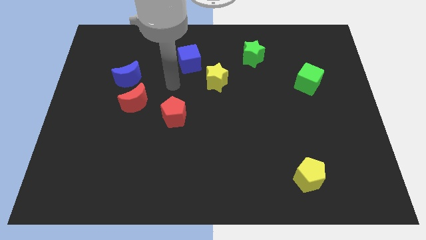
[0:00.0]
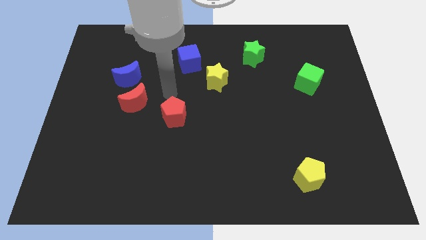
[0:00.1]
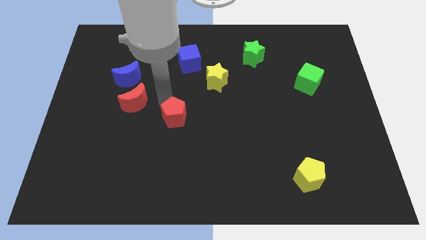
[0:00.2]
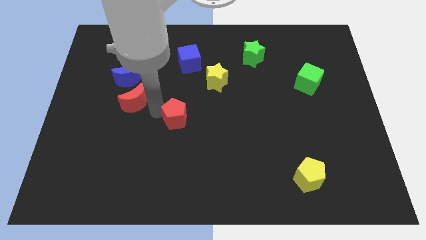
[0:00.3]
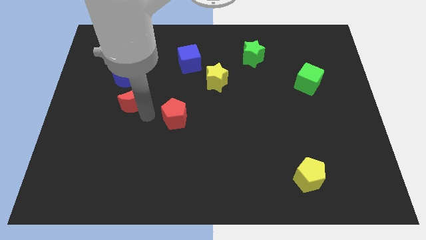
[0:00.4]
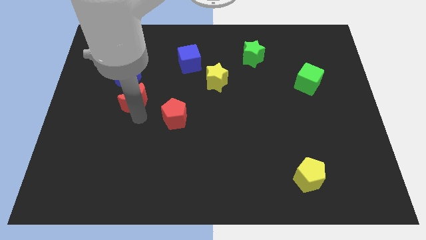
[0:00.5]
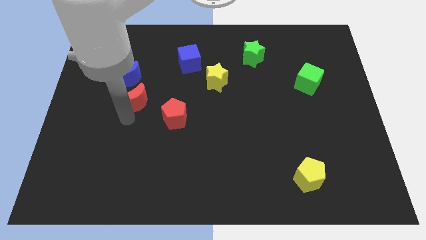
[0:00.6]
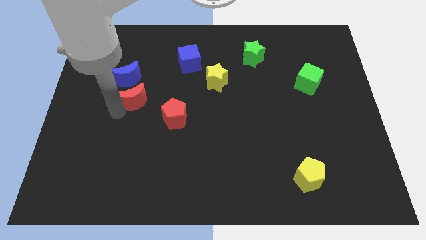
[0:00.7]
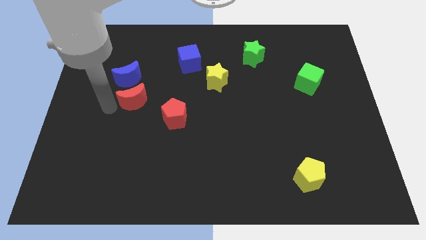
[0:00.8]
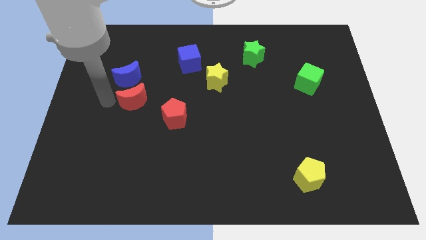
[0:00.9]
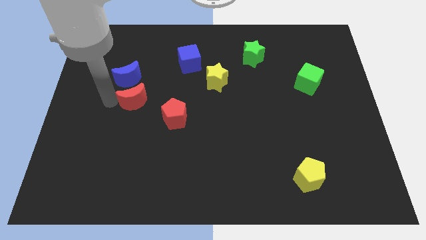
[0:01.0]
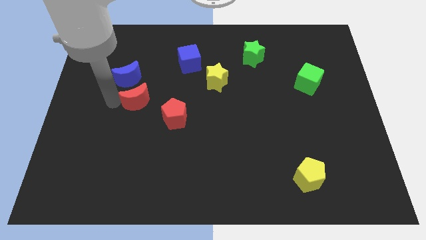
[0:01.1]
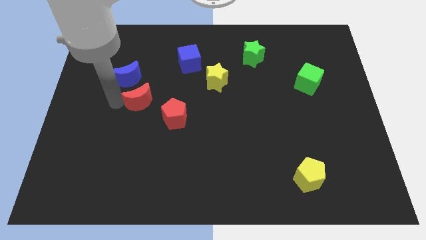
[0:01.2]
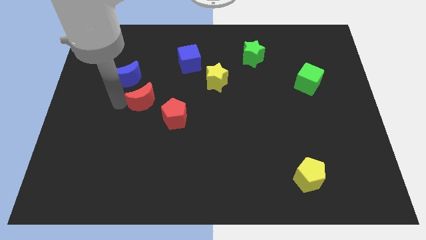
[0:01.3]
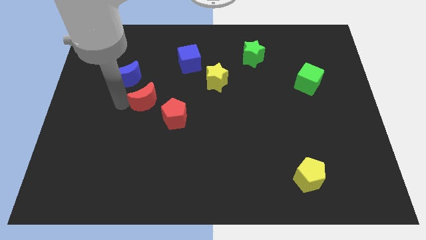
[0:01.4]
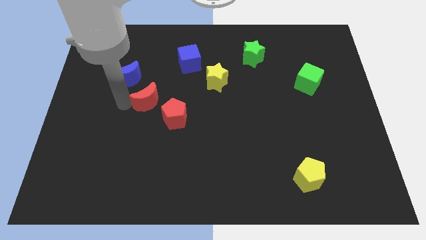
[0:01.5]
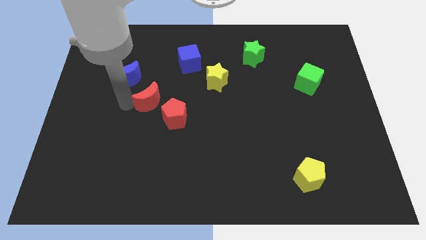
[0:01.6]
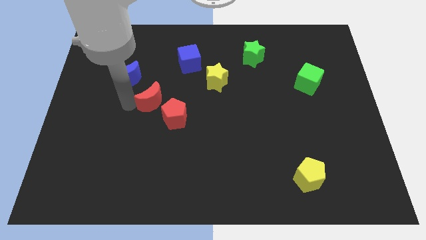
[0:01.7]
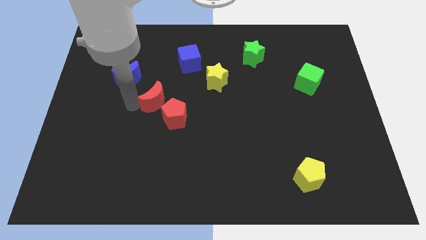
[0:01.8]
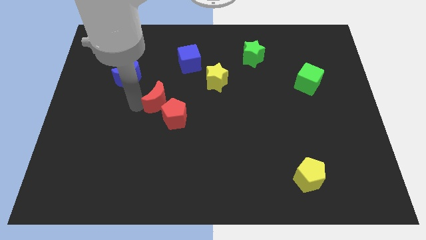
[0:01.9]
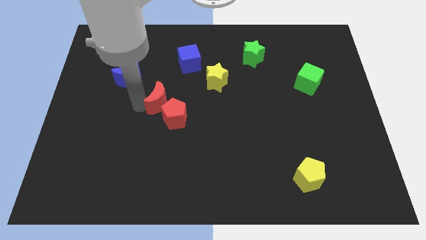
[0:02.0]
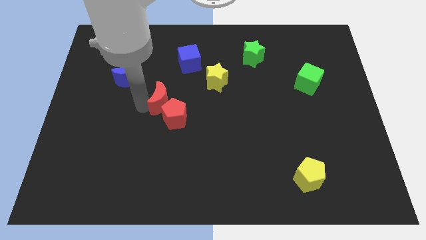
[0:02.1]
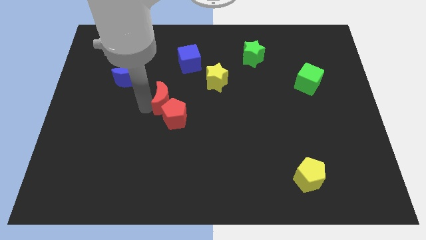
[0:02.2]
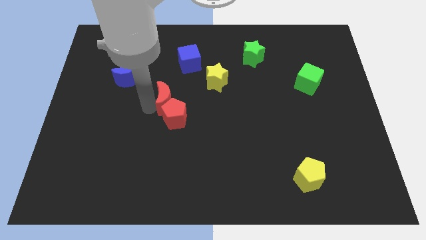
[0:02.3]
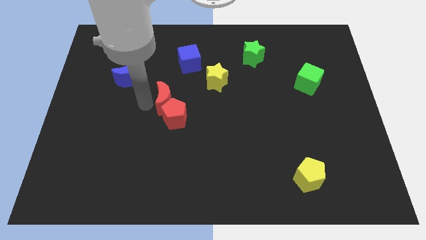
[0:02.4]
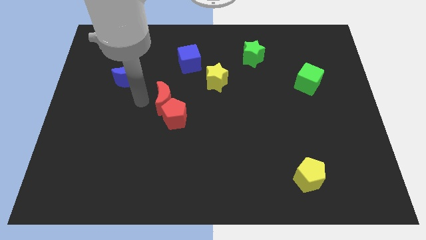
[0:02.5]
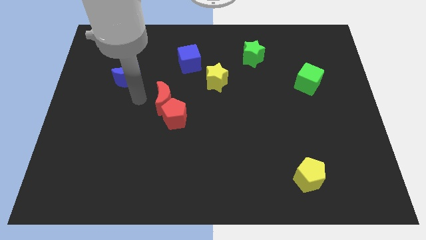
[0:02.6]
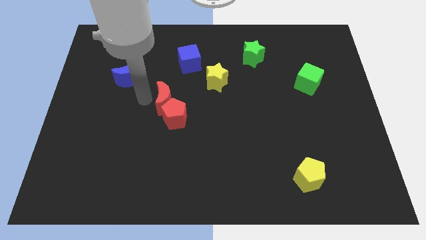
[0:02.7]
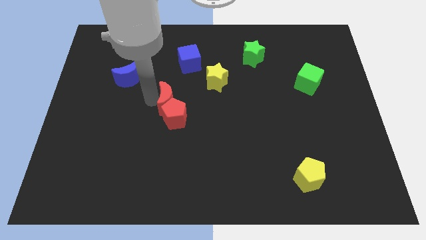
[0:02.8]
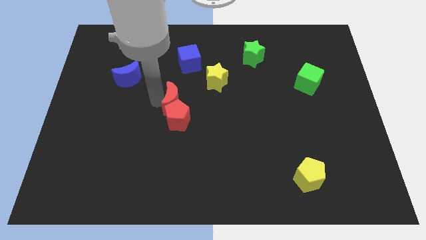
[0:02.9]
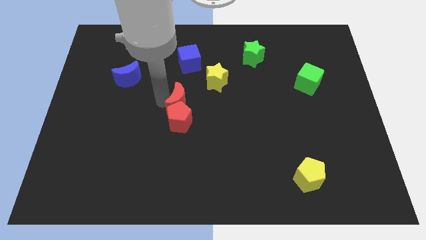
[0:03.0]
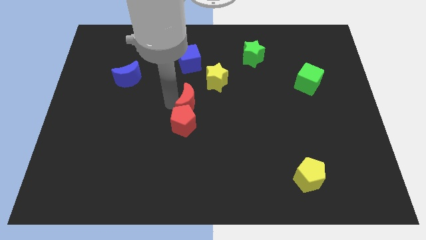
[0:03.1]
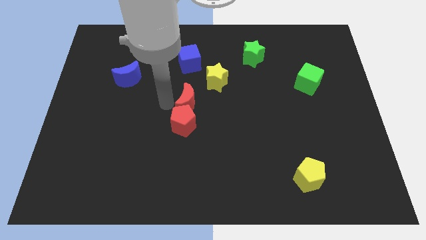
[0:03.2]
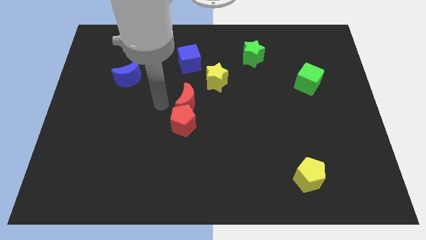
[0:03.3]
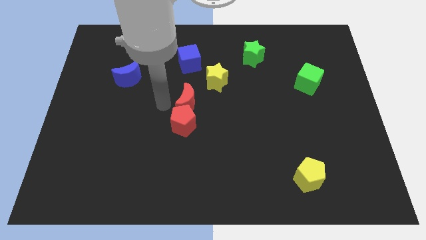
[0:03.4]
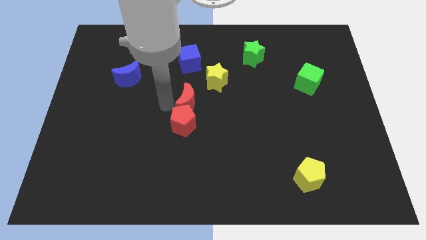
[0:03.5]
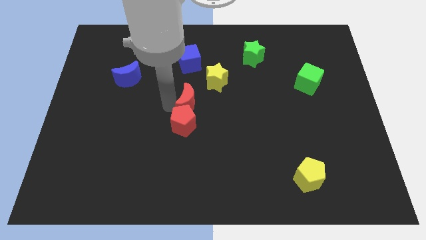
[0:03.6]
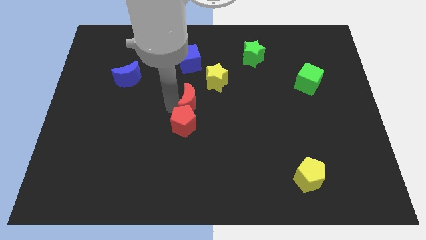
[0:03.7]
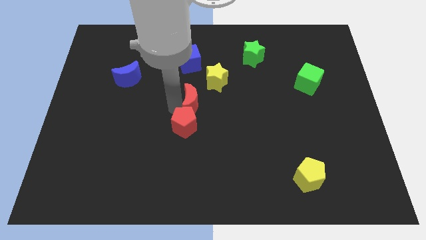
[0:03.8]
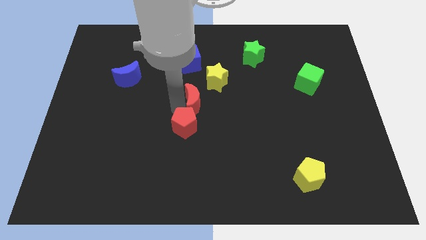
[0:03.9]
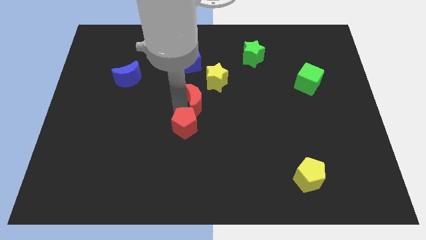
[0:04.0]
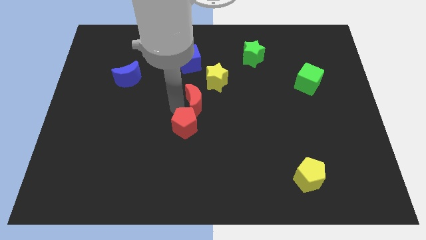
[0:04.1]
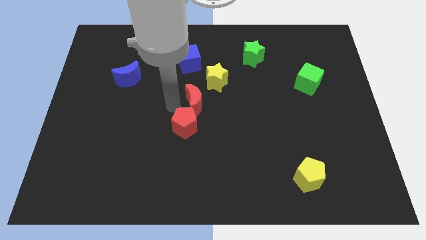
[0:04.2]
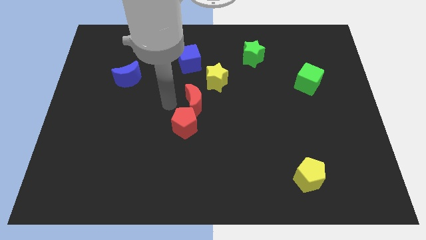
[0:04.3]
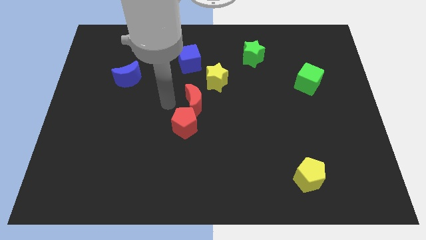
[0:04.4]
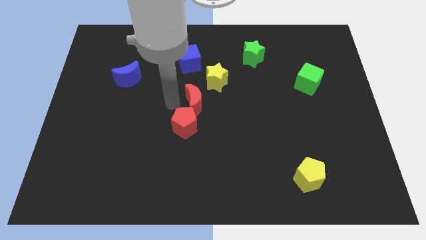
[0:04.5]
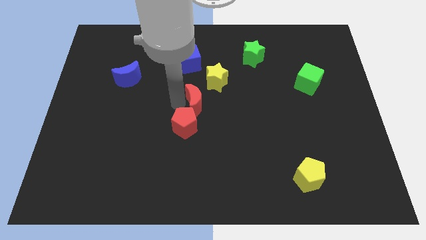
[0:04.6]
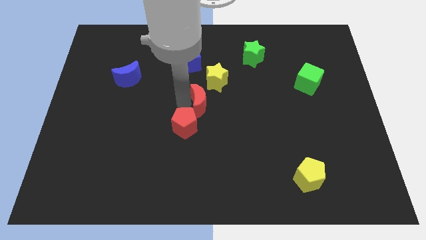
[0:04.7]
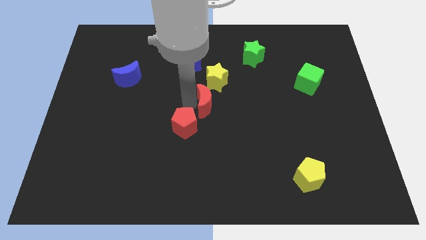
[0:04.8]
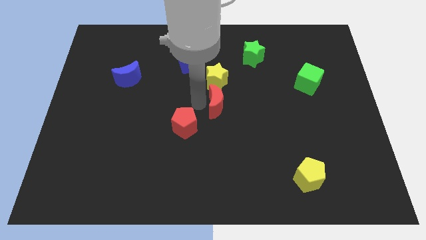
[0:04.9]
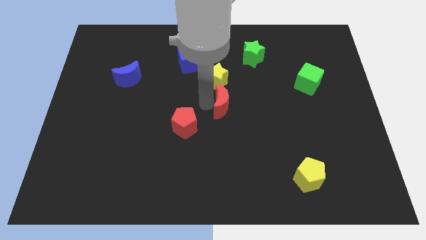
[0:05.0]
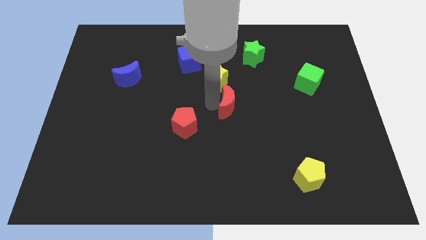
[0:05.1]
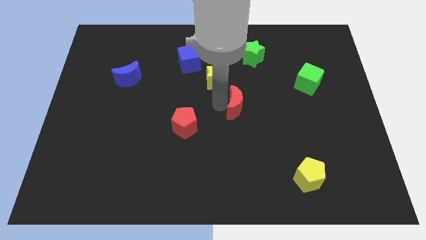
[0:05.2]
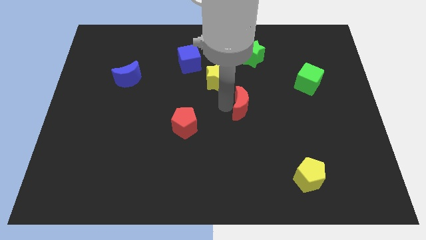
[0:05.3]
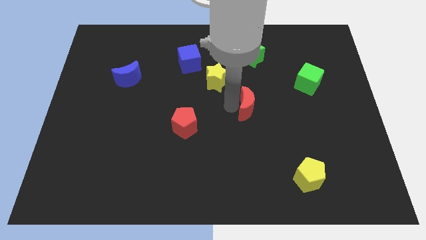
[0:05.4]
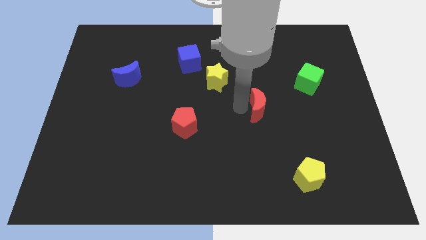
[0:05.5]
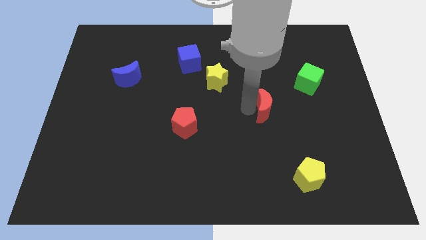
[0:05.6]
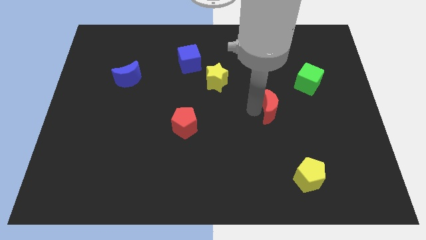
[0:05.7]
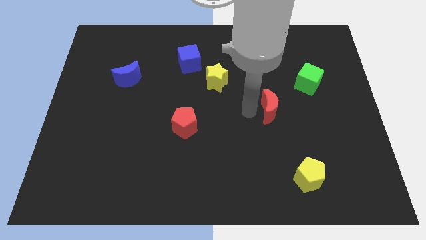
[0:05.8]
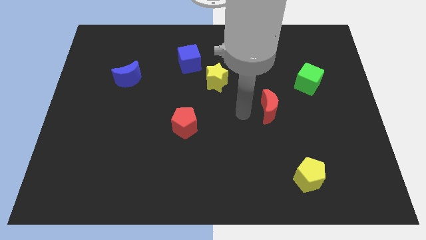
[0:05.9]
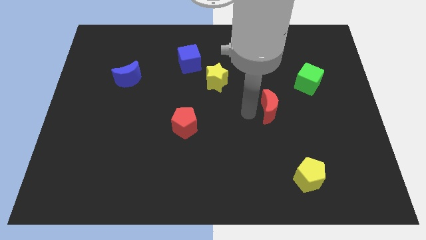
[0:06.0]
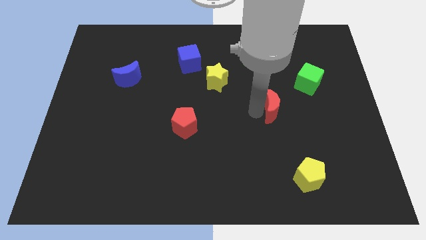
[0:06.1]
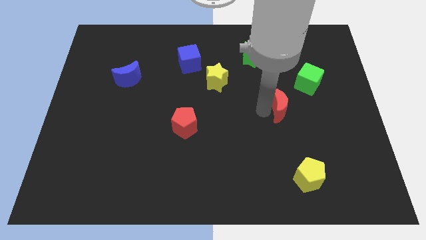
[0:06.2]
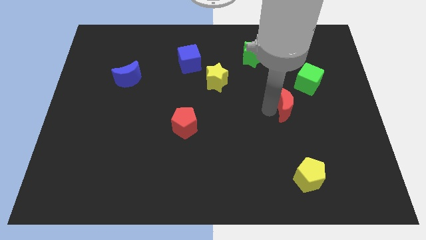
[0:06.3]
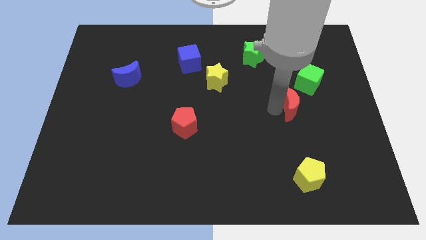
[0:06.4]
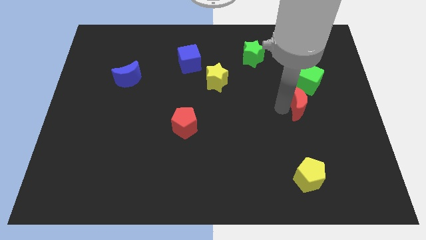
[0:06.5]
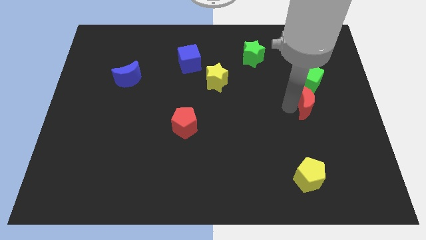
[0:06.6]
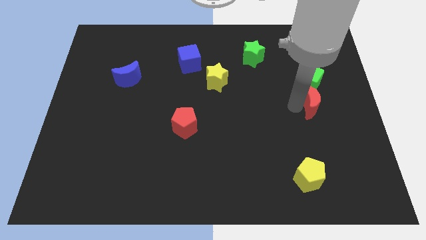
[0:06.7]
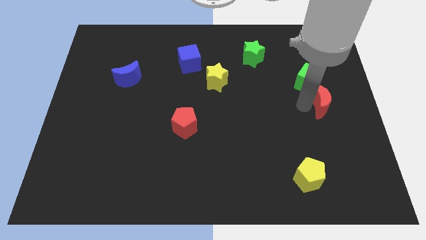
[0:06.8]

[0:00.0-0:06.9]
put the red moon to the center right
